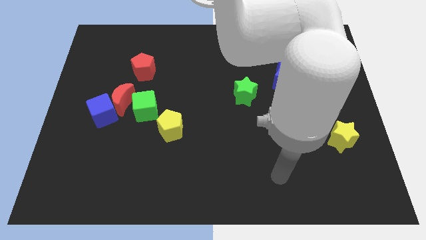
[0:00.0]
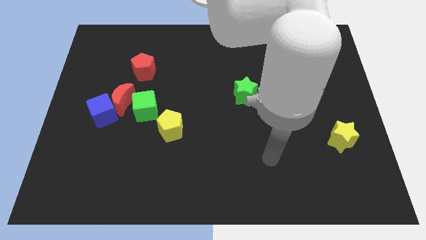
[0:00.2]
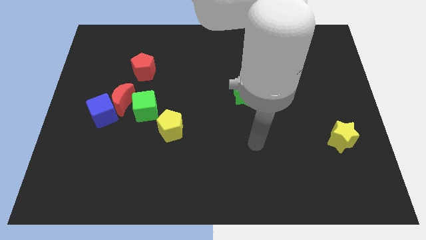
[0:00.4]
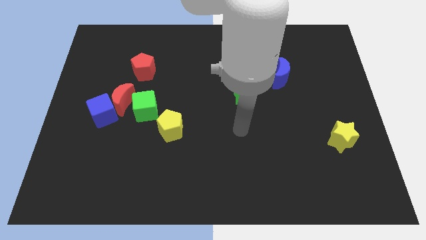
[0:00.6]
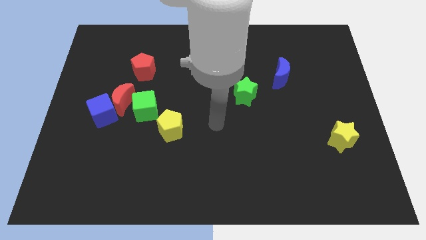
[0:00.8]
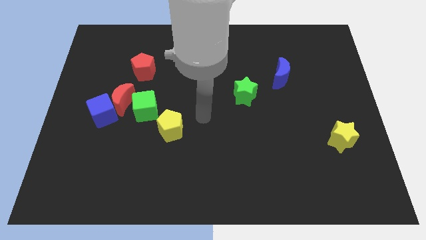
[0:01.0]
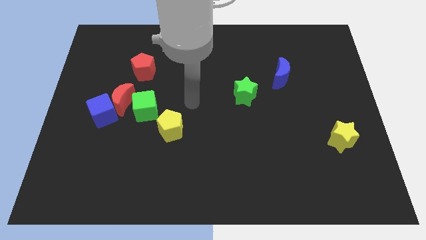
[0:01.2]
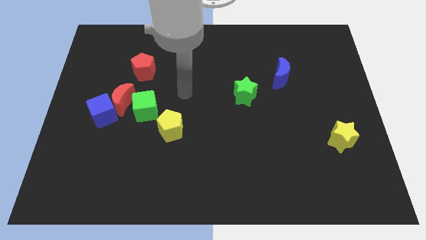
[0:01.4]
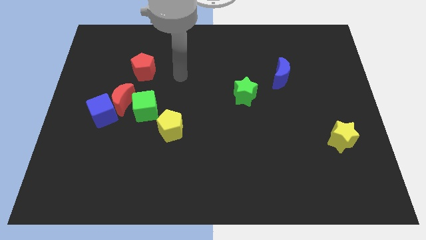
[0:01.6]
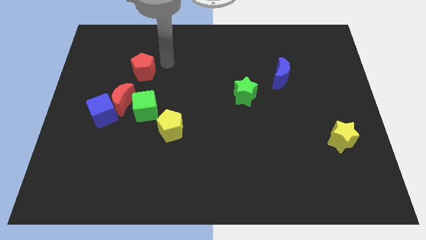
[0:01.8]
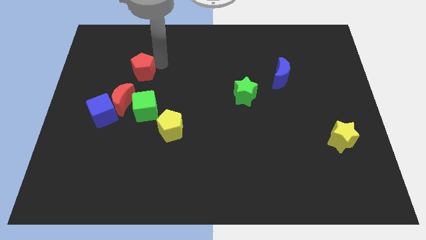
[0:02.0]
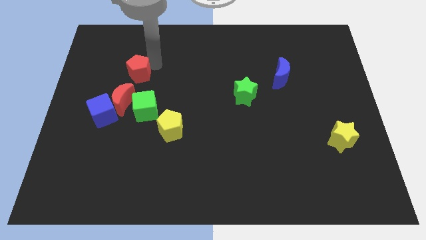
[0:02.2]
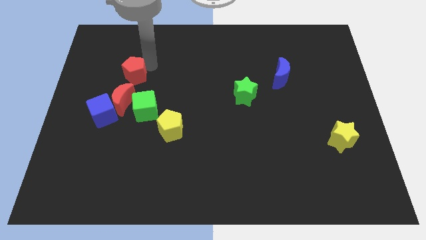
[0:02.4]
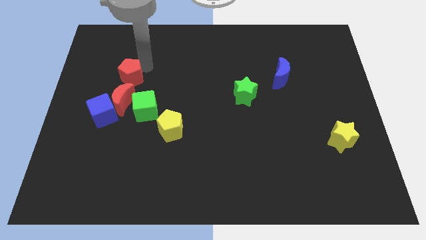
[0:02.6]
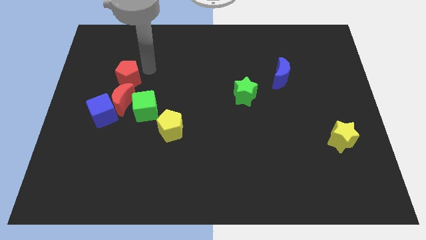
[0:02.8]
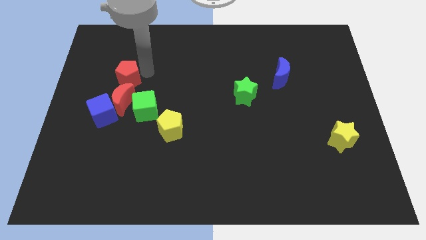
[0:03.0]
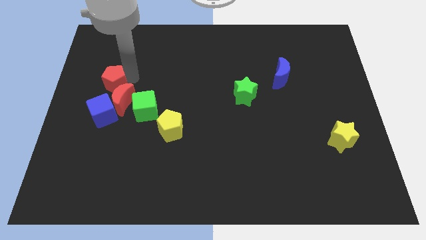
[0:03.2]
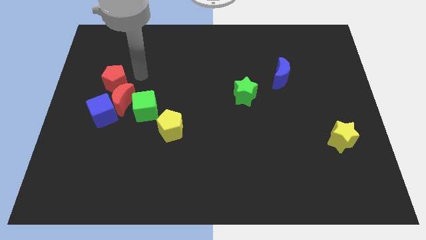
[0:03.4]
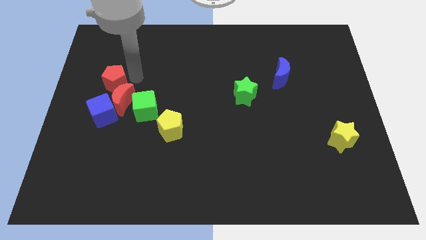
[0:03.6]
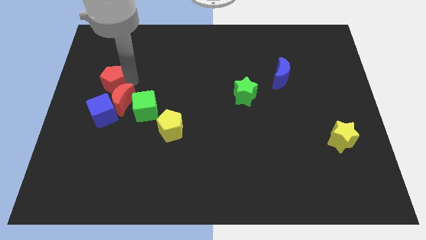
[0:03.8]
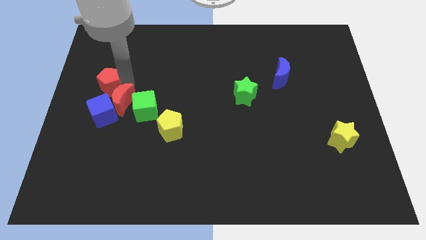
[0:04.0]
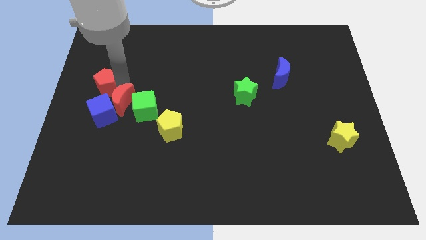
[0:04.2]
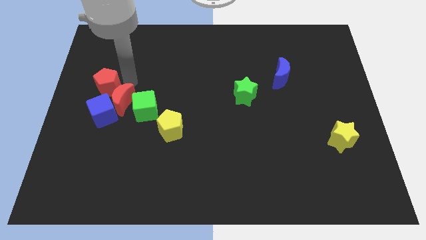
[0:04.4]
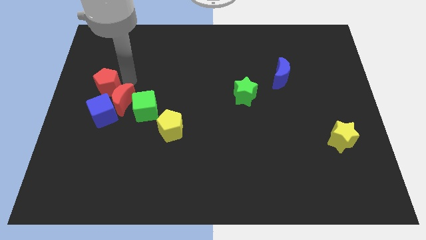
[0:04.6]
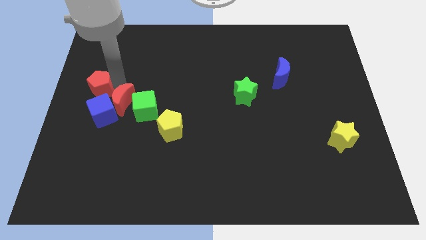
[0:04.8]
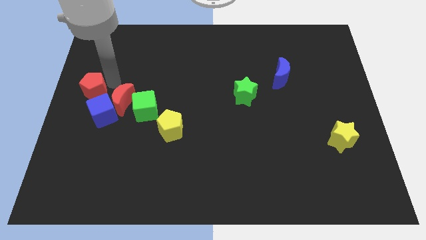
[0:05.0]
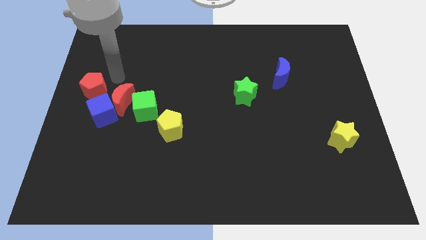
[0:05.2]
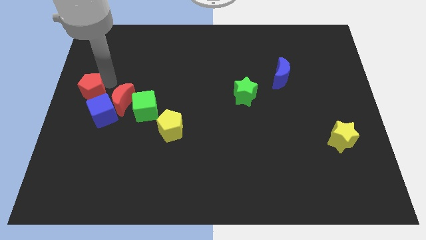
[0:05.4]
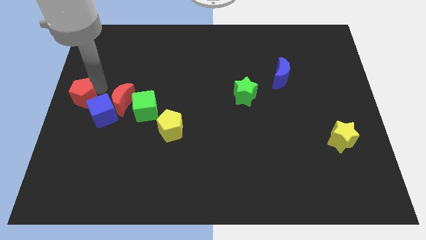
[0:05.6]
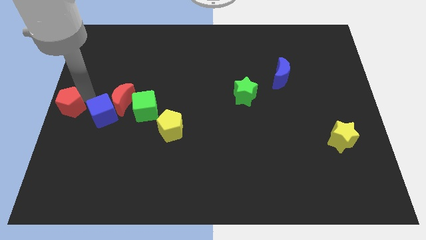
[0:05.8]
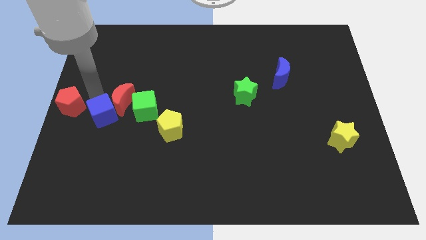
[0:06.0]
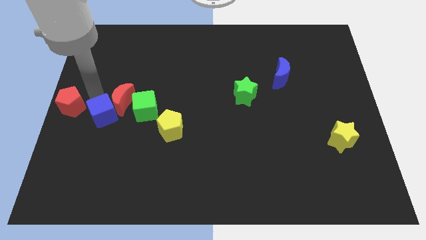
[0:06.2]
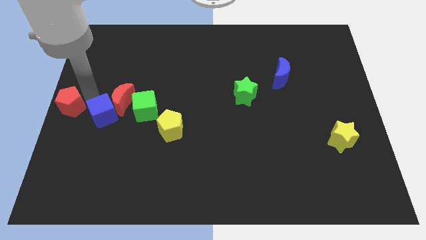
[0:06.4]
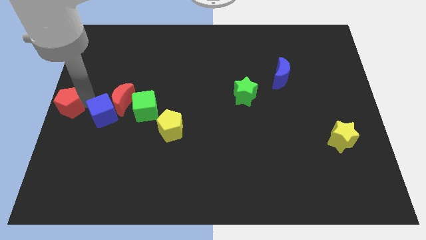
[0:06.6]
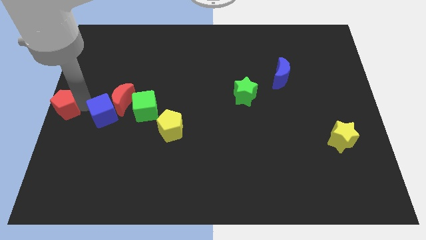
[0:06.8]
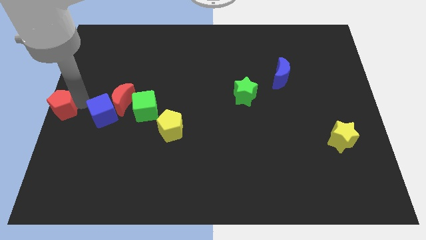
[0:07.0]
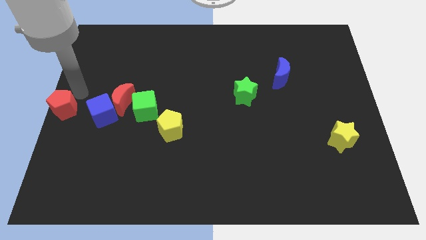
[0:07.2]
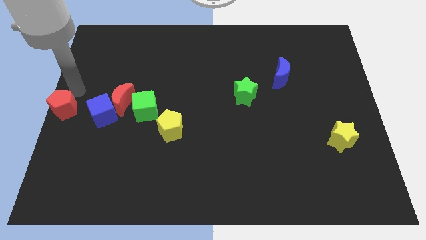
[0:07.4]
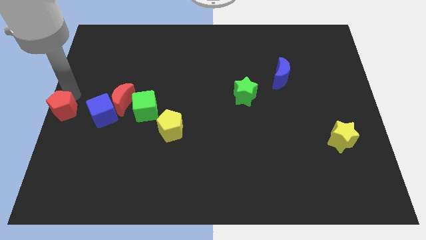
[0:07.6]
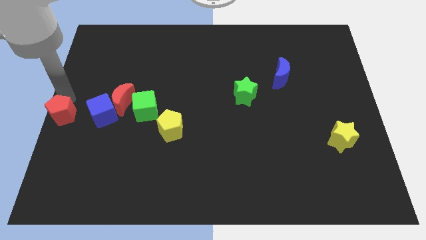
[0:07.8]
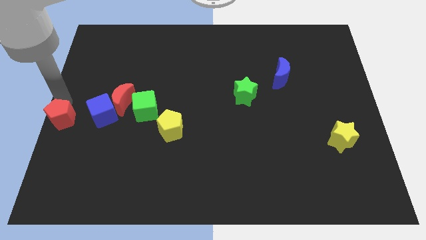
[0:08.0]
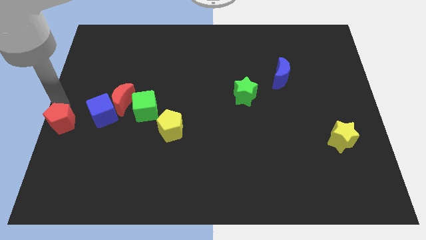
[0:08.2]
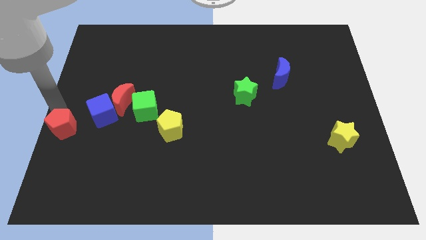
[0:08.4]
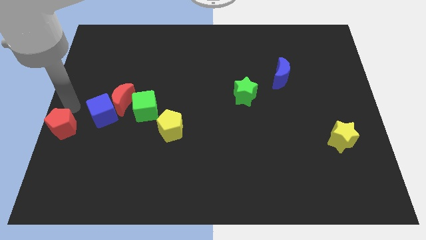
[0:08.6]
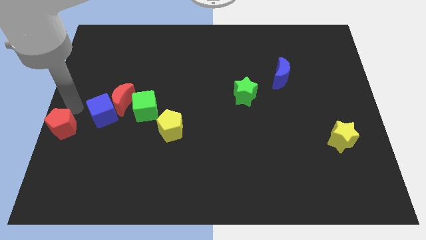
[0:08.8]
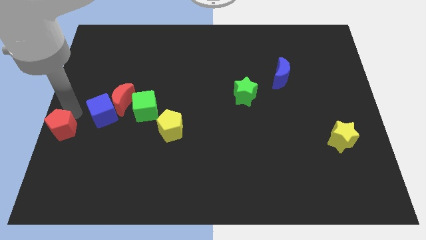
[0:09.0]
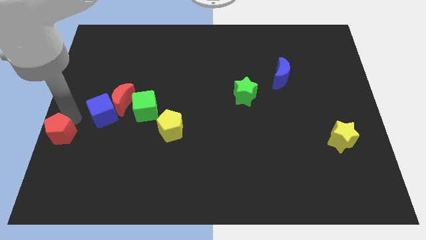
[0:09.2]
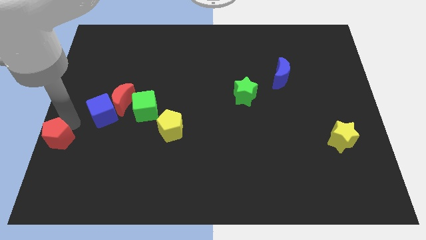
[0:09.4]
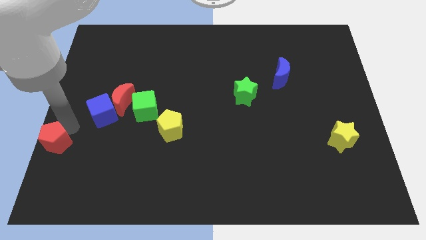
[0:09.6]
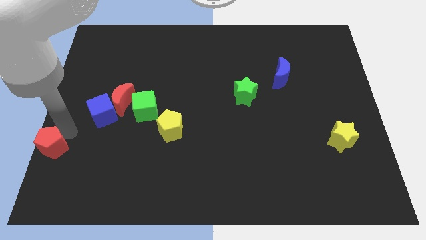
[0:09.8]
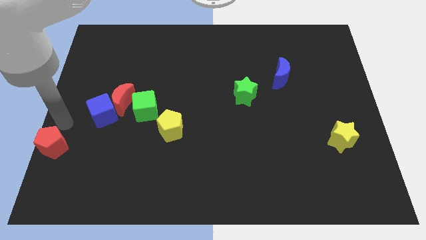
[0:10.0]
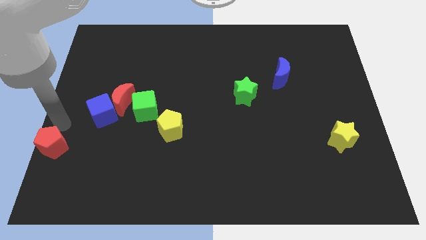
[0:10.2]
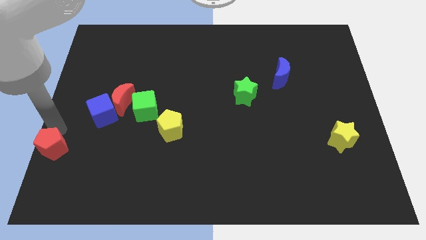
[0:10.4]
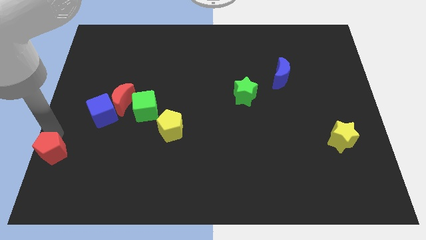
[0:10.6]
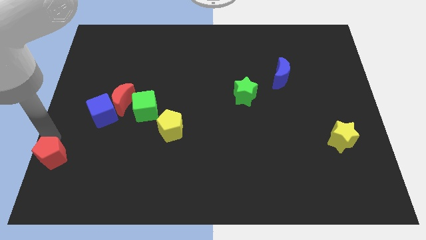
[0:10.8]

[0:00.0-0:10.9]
push the red pentagon to the bottom left

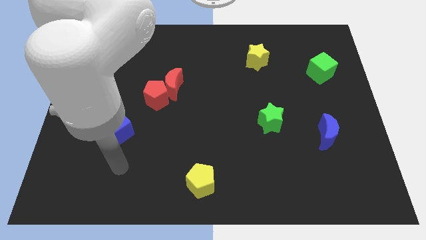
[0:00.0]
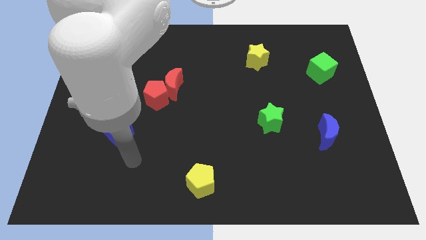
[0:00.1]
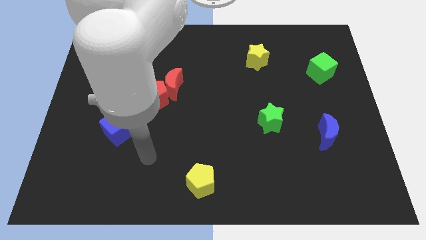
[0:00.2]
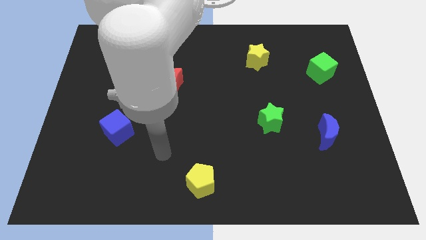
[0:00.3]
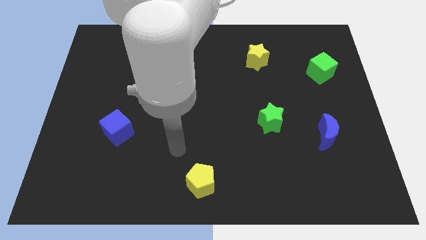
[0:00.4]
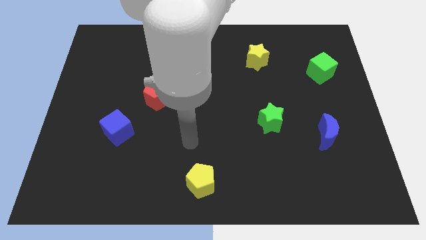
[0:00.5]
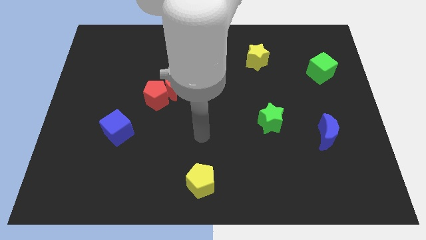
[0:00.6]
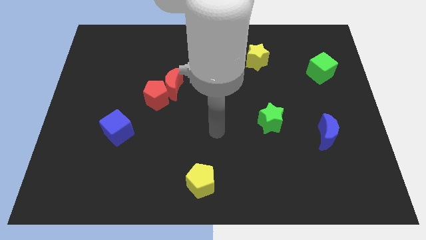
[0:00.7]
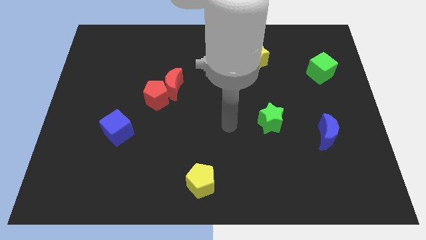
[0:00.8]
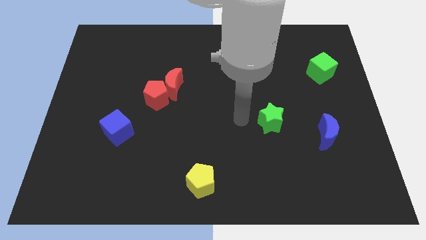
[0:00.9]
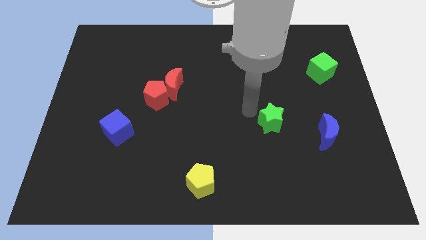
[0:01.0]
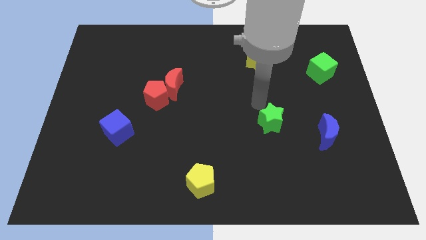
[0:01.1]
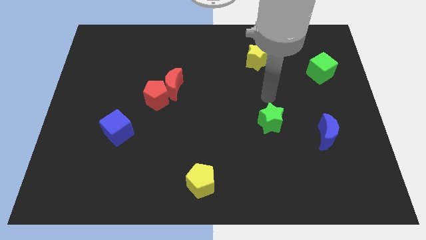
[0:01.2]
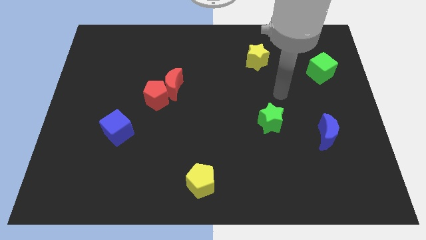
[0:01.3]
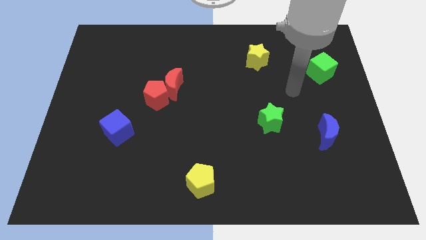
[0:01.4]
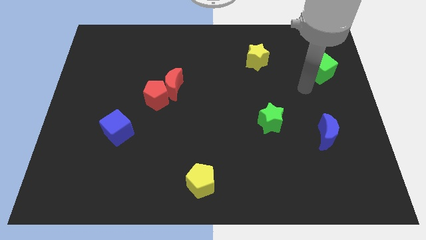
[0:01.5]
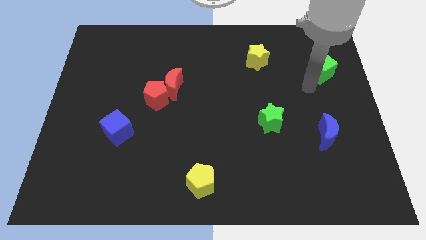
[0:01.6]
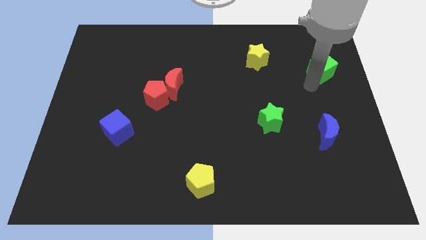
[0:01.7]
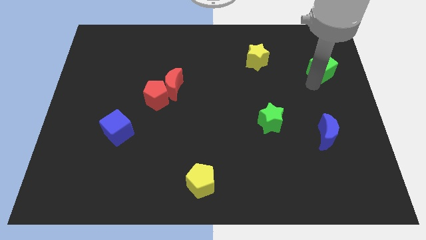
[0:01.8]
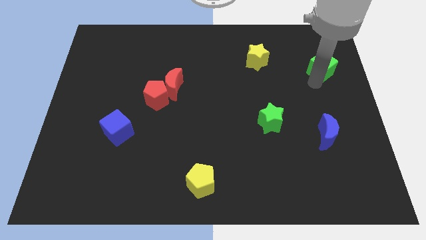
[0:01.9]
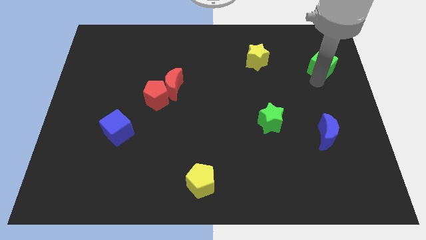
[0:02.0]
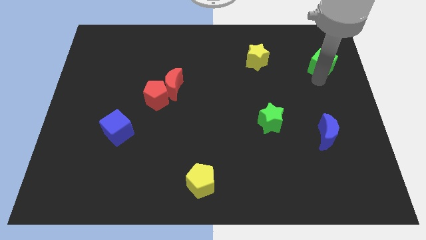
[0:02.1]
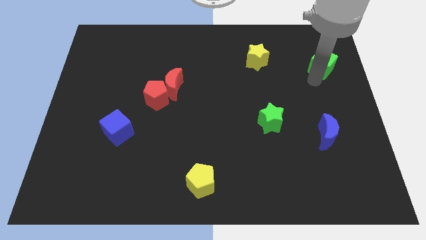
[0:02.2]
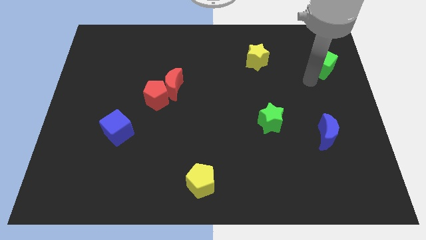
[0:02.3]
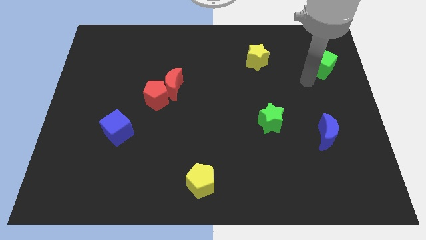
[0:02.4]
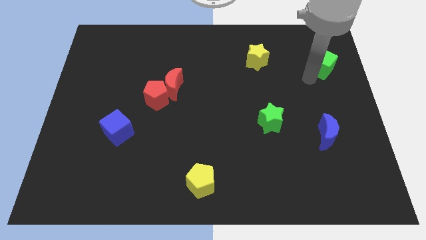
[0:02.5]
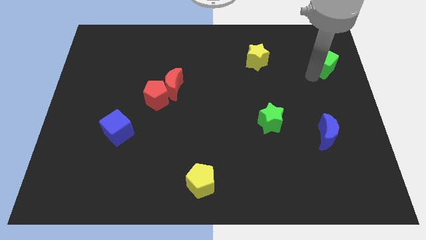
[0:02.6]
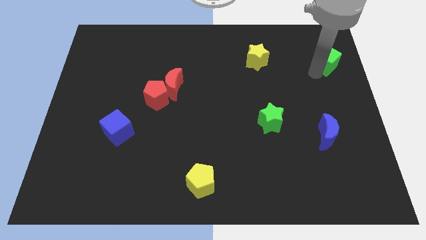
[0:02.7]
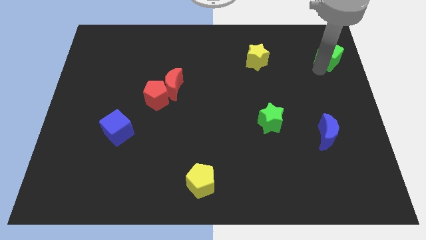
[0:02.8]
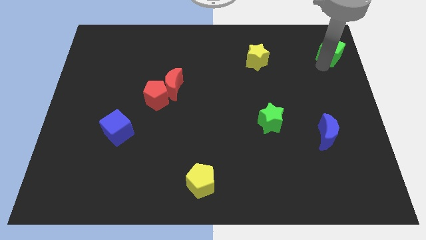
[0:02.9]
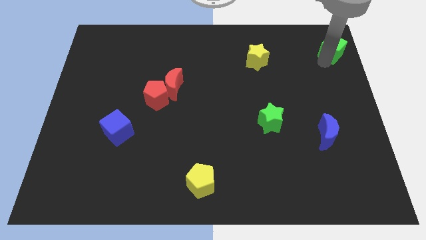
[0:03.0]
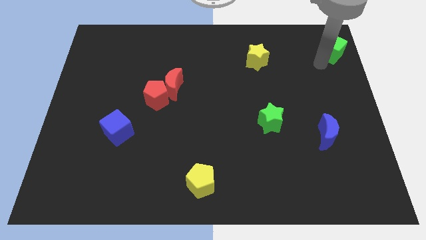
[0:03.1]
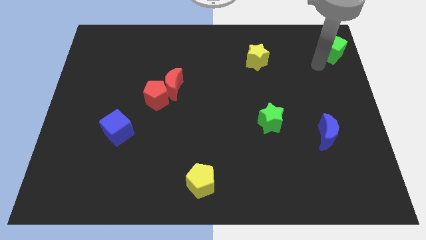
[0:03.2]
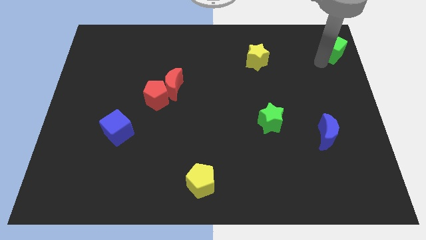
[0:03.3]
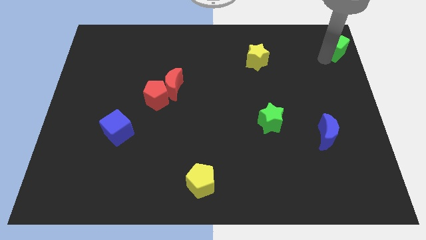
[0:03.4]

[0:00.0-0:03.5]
move the green cube to the top right of the board
